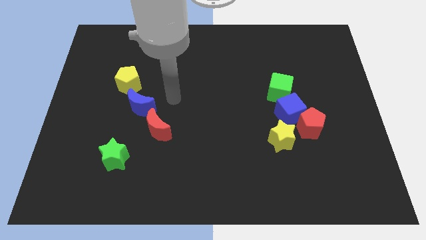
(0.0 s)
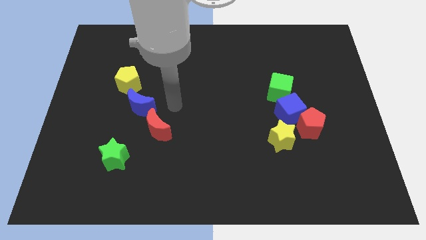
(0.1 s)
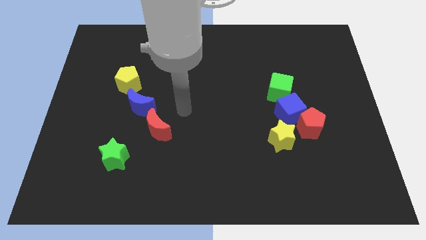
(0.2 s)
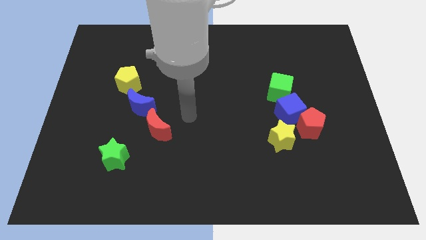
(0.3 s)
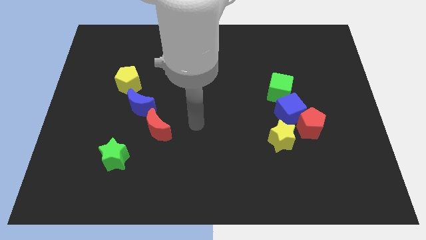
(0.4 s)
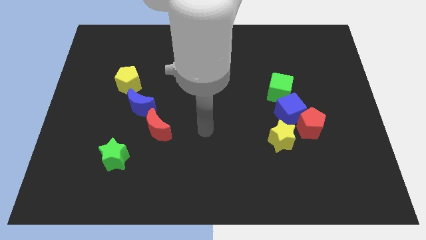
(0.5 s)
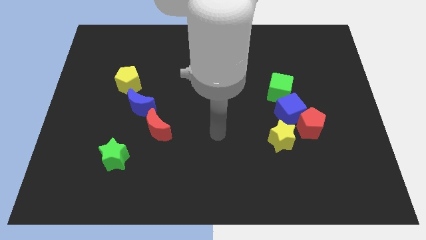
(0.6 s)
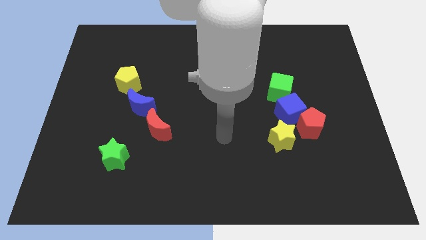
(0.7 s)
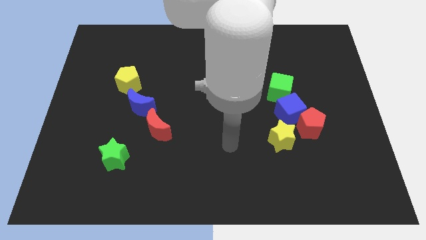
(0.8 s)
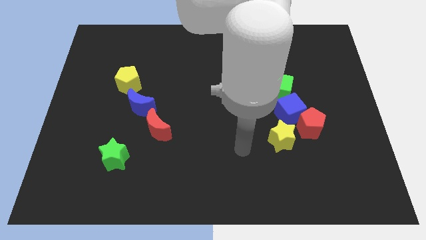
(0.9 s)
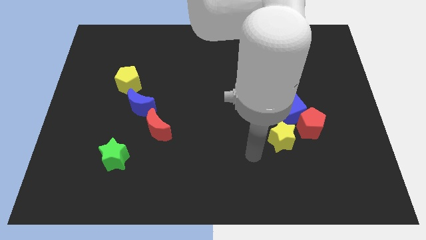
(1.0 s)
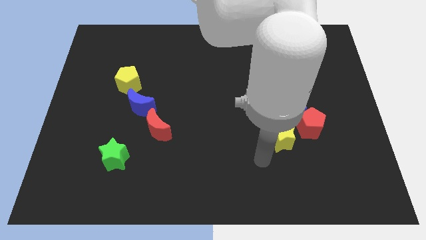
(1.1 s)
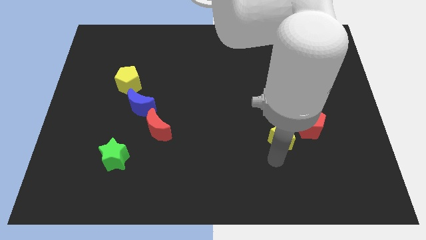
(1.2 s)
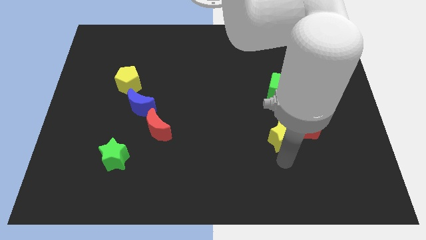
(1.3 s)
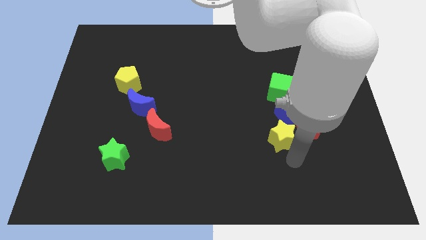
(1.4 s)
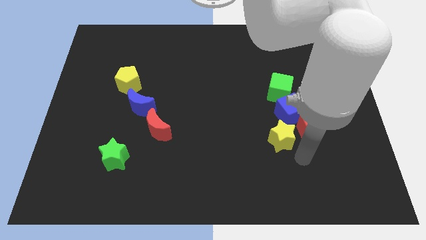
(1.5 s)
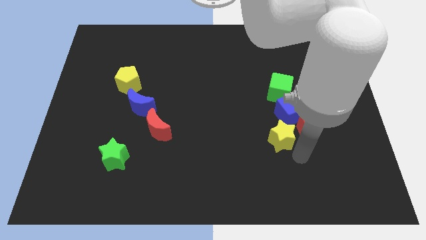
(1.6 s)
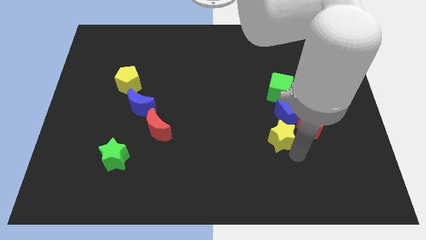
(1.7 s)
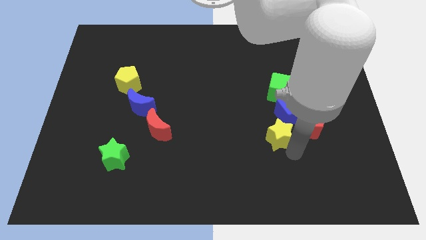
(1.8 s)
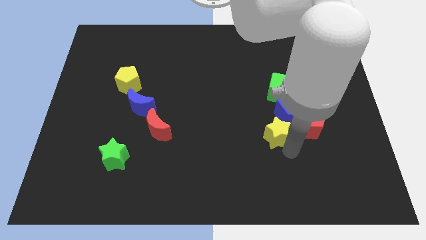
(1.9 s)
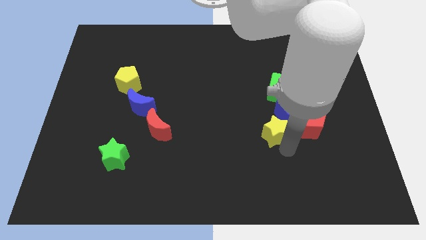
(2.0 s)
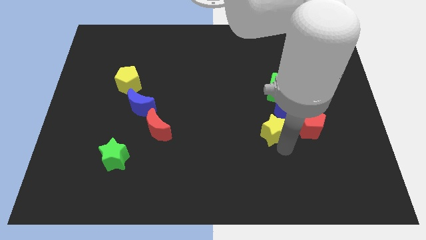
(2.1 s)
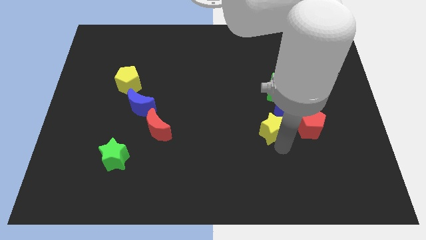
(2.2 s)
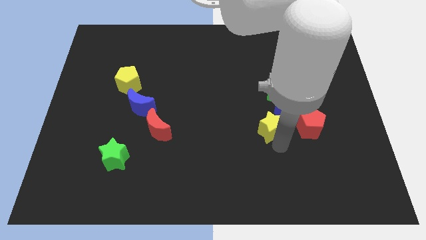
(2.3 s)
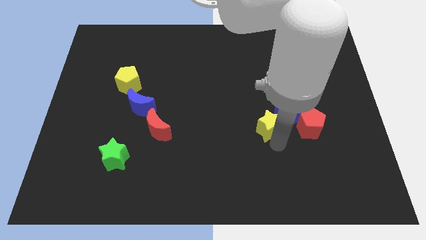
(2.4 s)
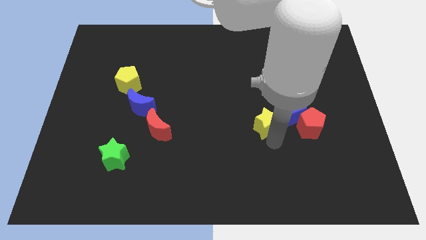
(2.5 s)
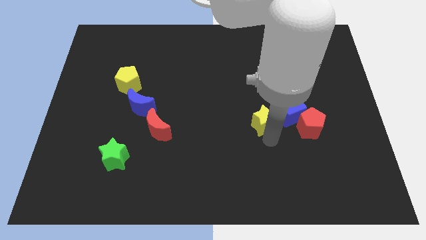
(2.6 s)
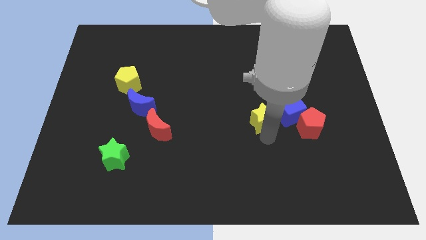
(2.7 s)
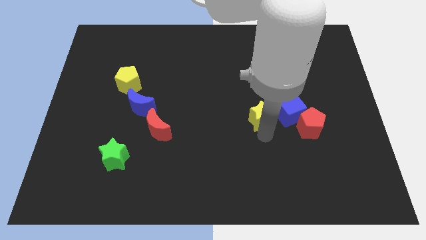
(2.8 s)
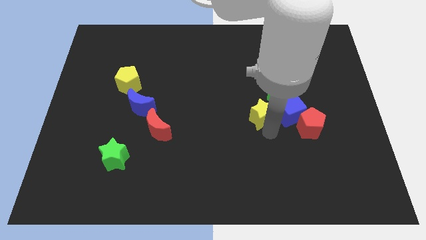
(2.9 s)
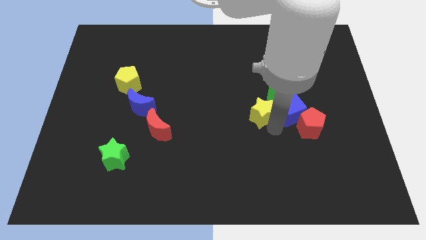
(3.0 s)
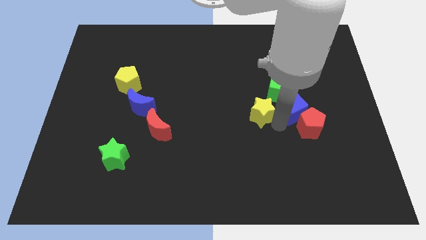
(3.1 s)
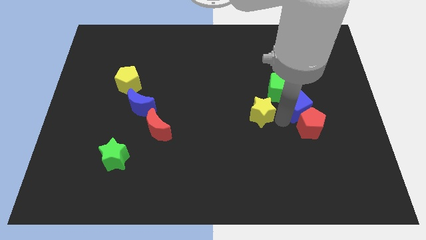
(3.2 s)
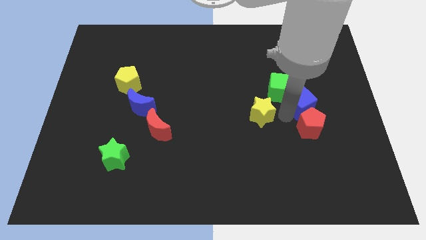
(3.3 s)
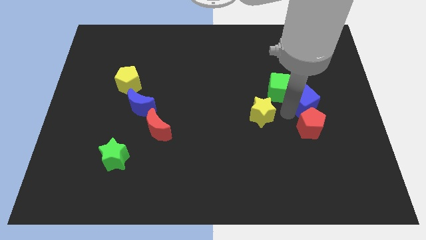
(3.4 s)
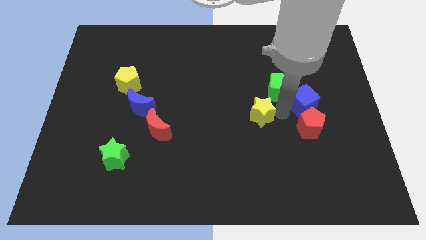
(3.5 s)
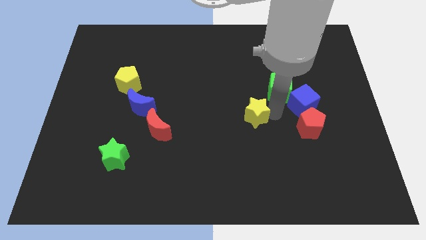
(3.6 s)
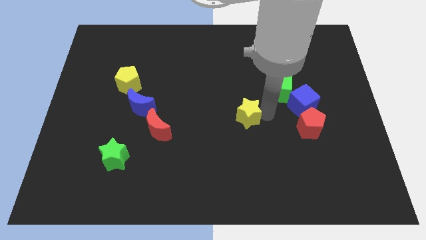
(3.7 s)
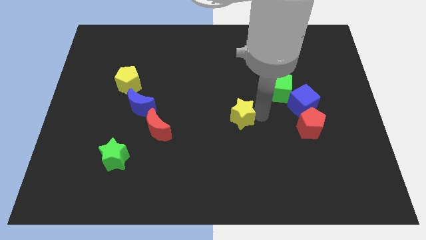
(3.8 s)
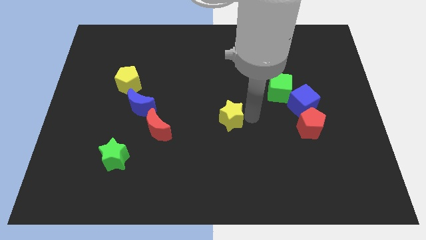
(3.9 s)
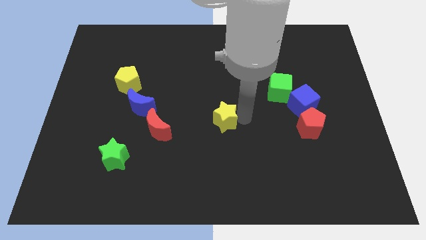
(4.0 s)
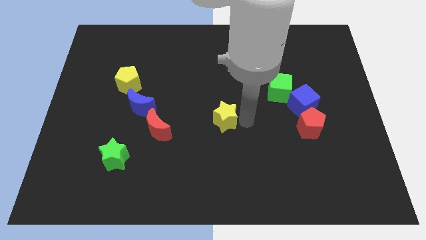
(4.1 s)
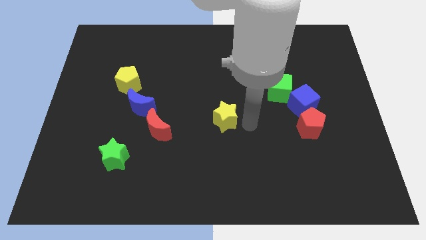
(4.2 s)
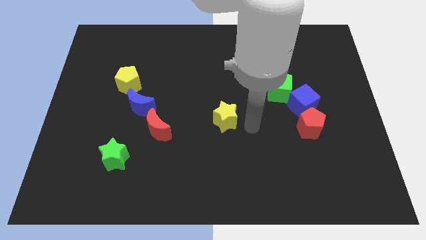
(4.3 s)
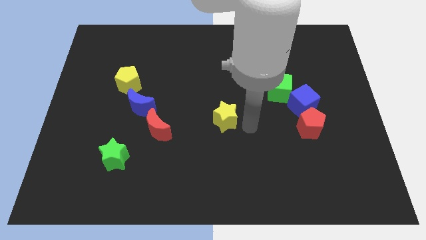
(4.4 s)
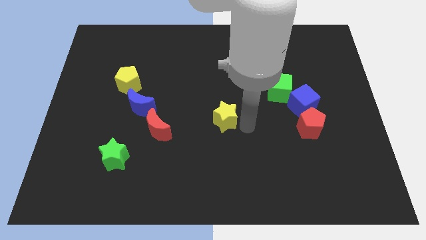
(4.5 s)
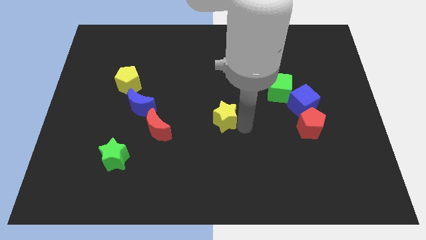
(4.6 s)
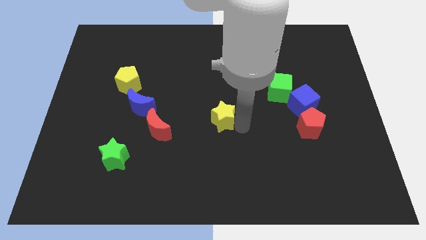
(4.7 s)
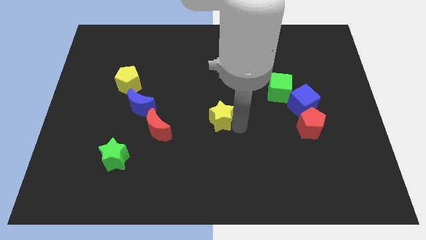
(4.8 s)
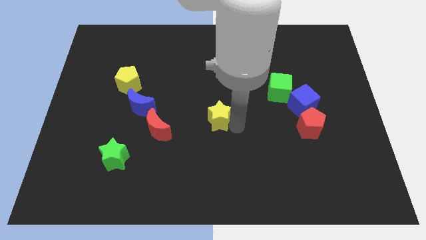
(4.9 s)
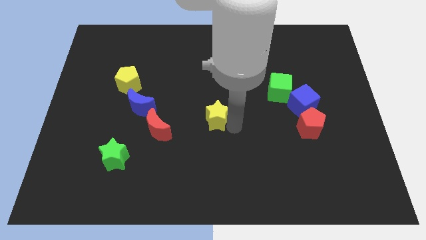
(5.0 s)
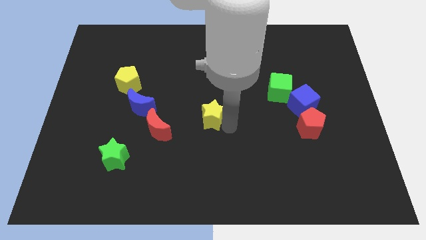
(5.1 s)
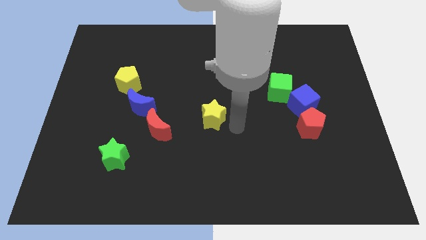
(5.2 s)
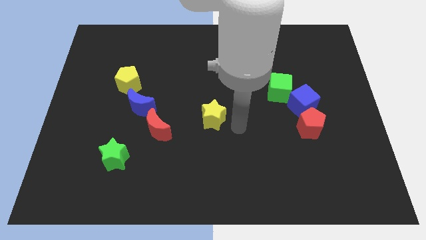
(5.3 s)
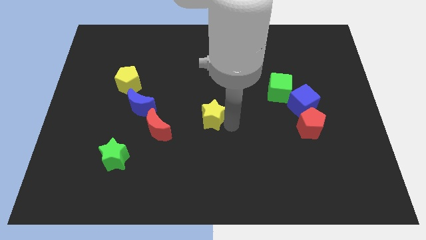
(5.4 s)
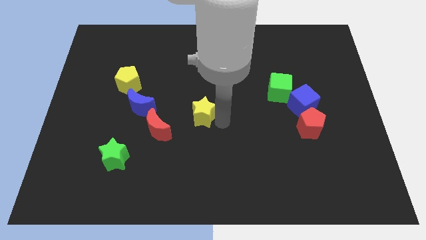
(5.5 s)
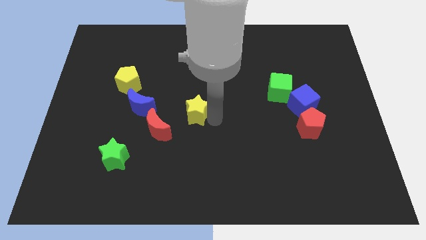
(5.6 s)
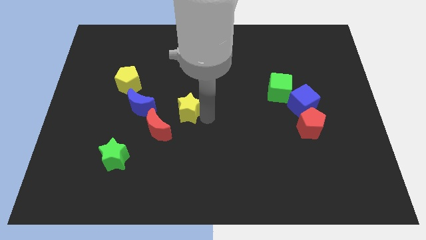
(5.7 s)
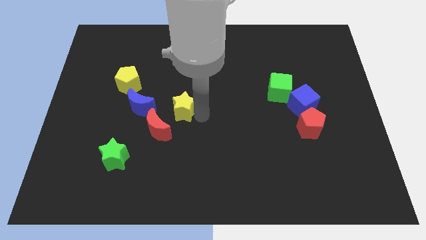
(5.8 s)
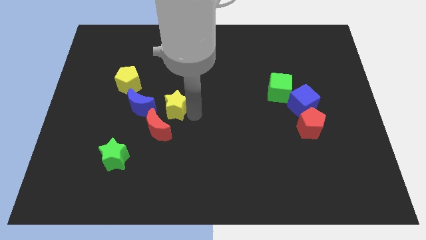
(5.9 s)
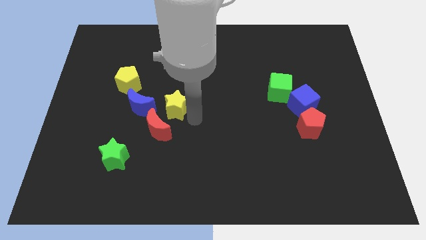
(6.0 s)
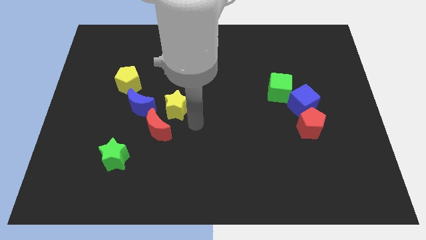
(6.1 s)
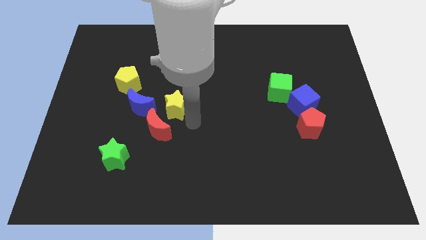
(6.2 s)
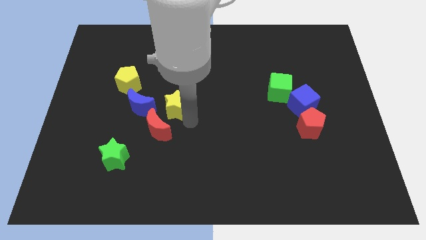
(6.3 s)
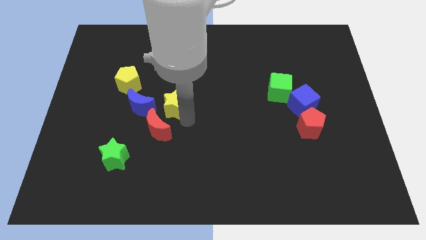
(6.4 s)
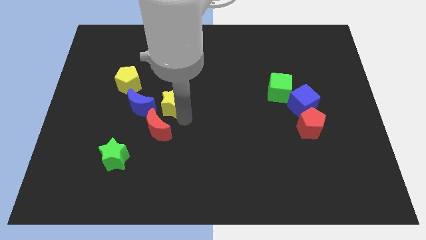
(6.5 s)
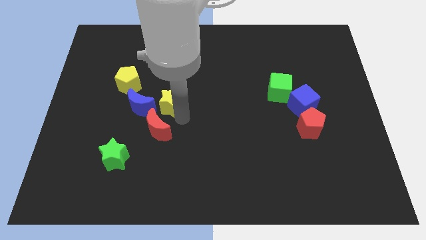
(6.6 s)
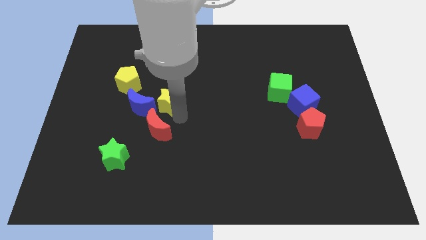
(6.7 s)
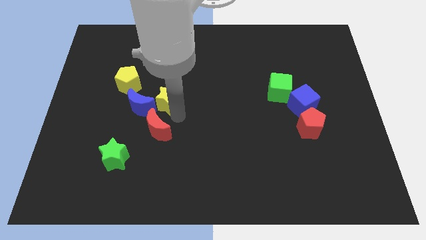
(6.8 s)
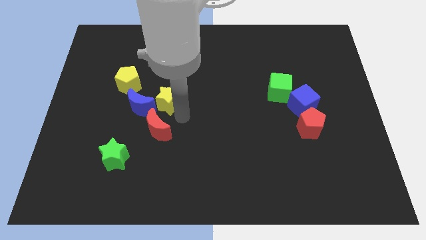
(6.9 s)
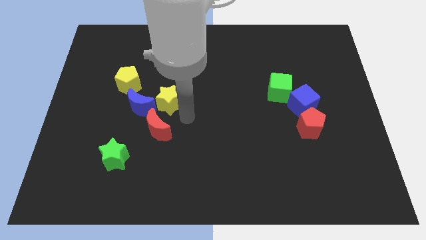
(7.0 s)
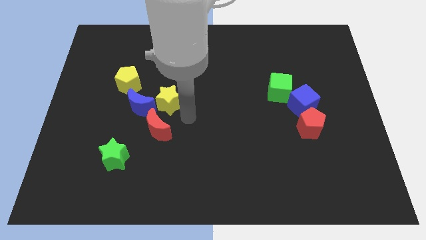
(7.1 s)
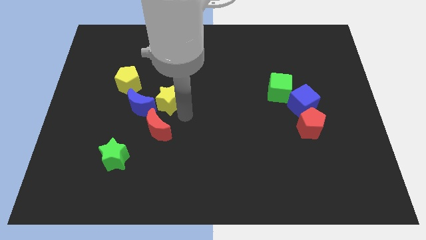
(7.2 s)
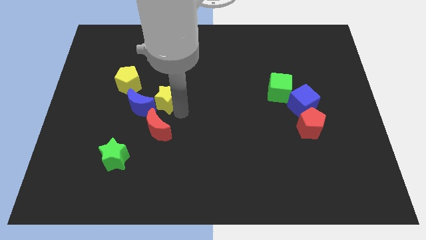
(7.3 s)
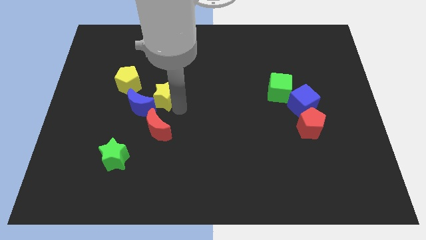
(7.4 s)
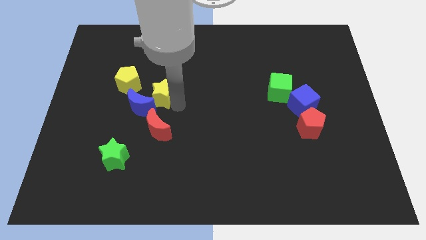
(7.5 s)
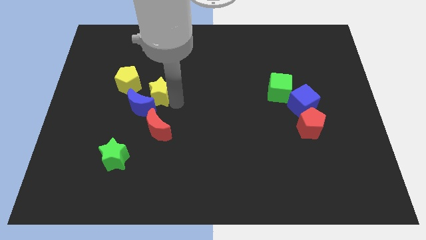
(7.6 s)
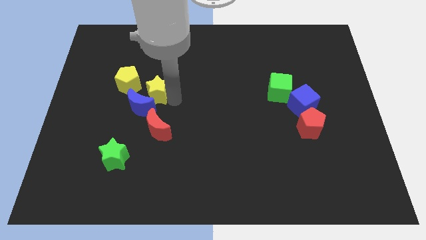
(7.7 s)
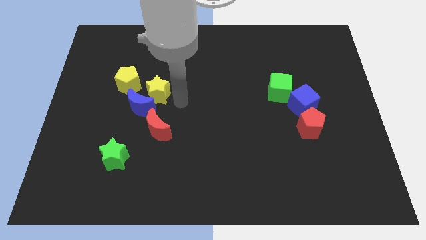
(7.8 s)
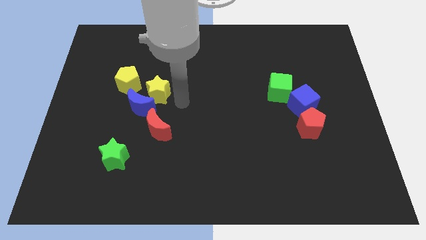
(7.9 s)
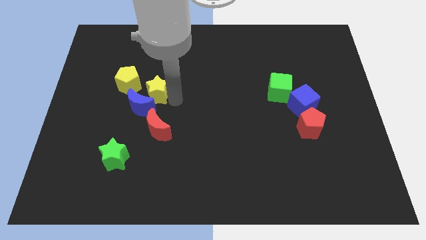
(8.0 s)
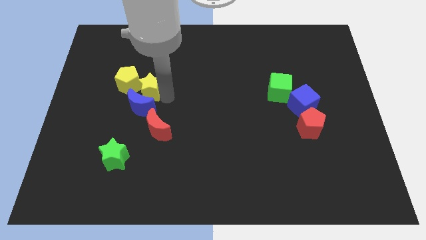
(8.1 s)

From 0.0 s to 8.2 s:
put the yellow star next to the yellow pentagon
